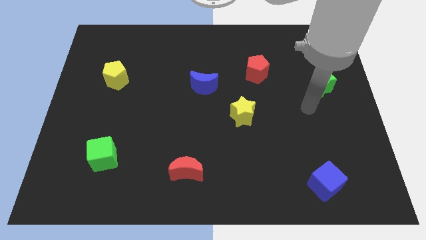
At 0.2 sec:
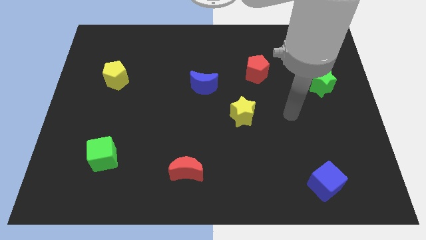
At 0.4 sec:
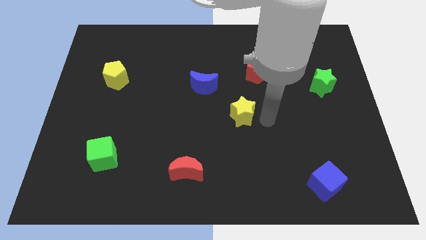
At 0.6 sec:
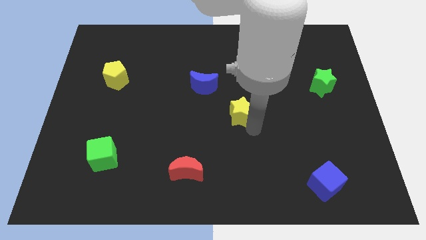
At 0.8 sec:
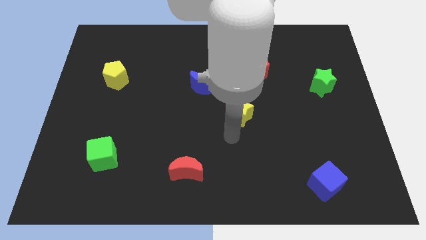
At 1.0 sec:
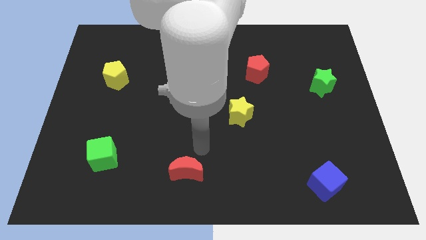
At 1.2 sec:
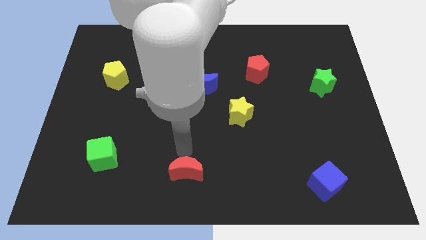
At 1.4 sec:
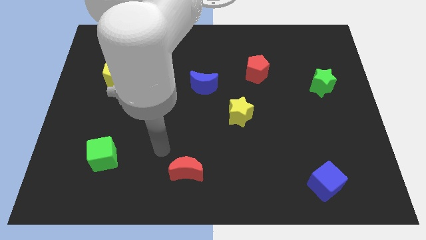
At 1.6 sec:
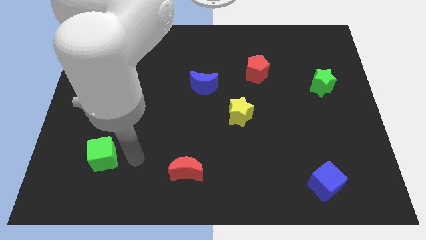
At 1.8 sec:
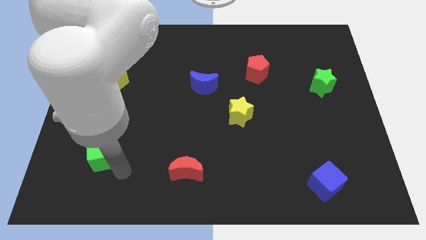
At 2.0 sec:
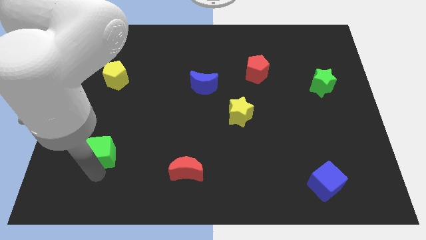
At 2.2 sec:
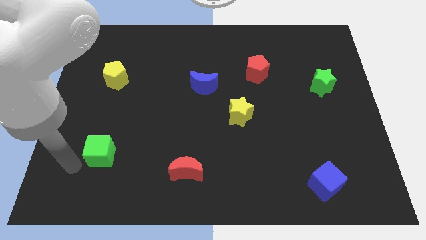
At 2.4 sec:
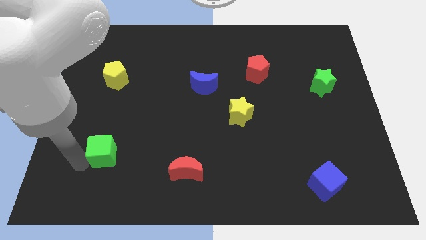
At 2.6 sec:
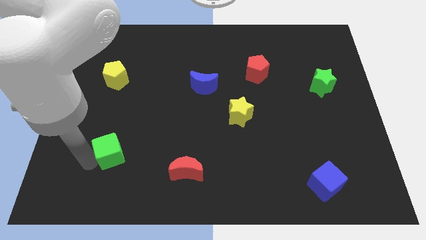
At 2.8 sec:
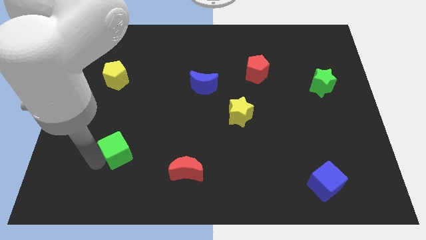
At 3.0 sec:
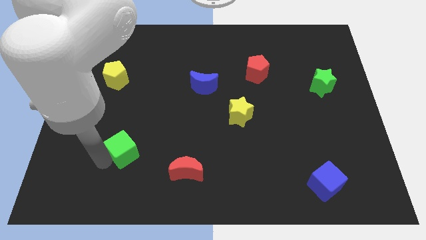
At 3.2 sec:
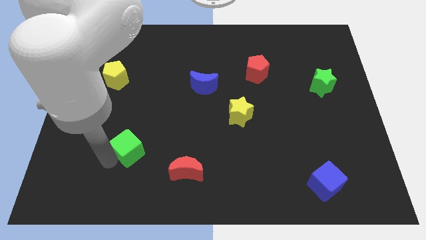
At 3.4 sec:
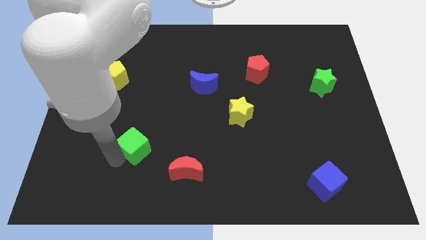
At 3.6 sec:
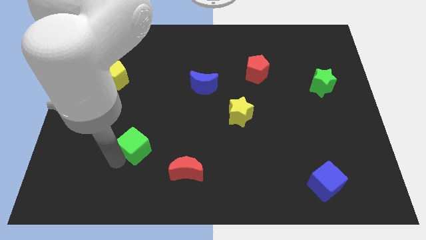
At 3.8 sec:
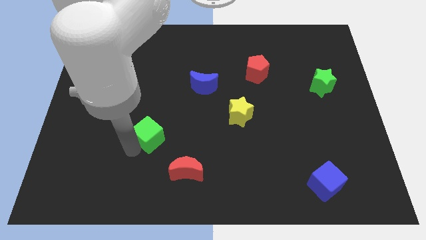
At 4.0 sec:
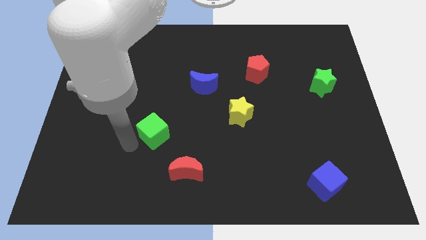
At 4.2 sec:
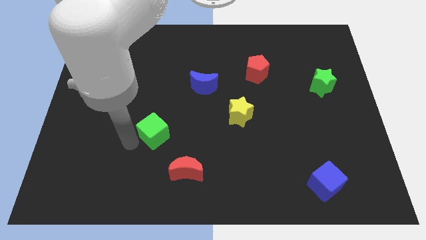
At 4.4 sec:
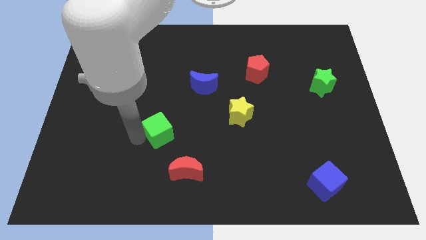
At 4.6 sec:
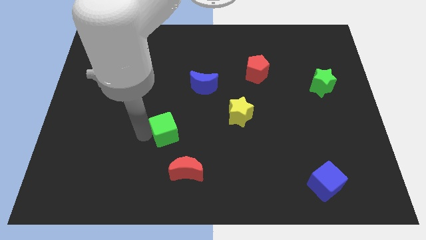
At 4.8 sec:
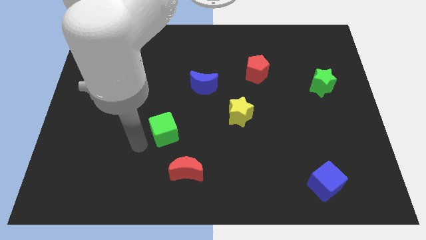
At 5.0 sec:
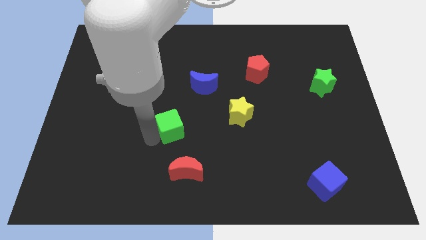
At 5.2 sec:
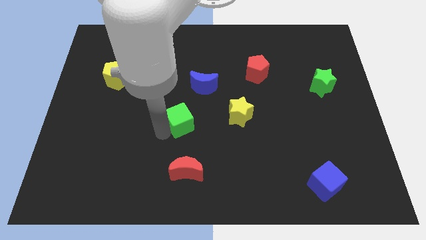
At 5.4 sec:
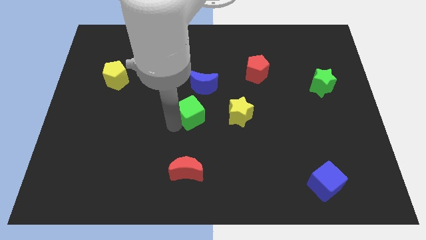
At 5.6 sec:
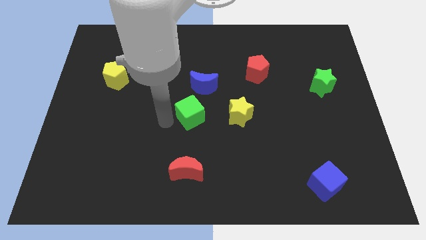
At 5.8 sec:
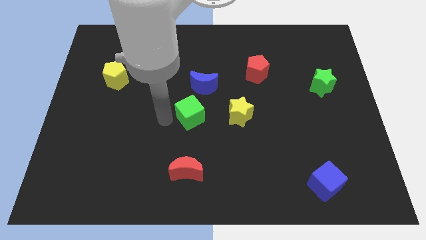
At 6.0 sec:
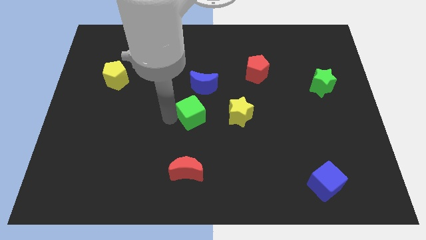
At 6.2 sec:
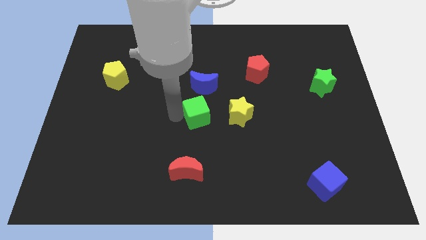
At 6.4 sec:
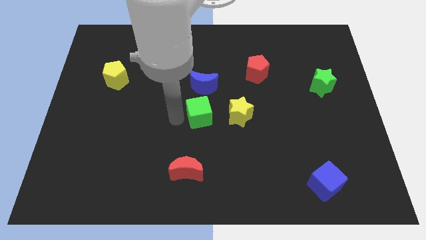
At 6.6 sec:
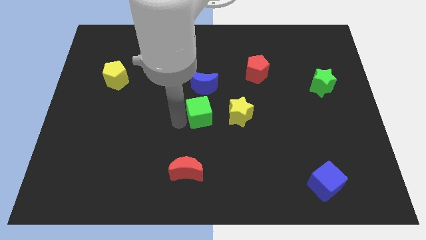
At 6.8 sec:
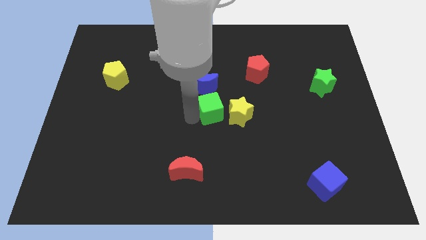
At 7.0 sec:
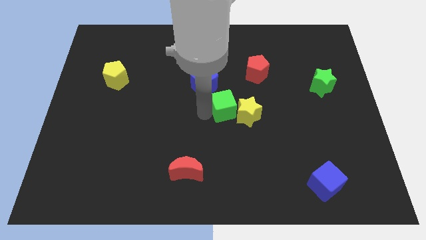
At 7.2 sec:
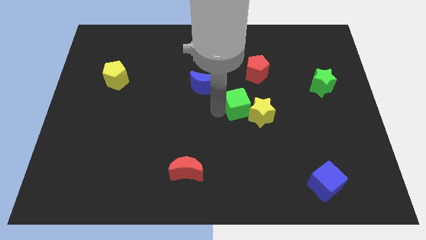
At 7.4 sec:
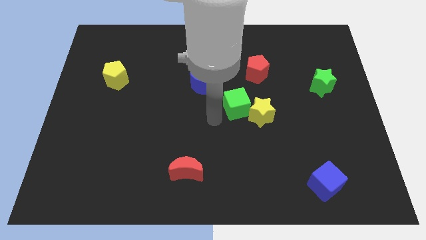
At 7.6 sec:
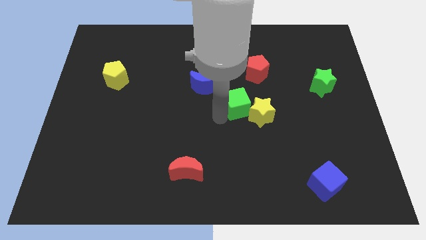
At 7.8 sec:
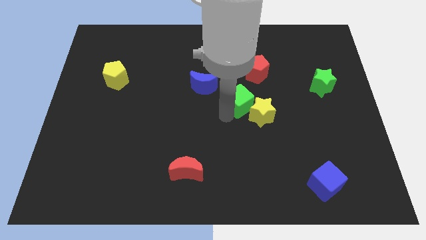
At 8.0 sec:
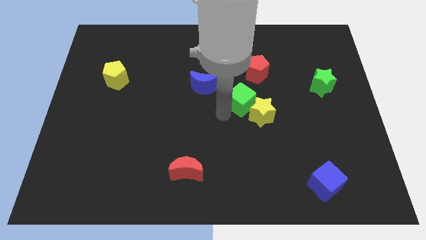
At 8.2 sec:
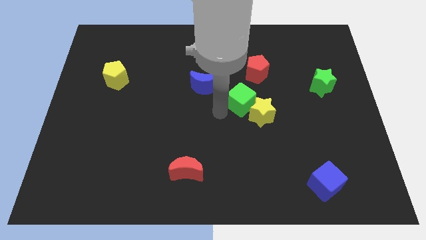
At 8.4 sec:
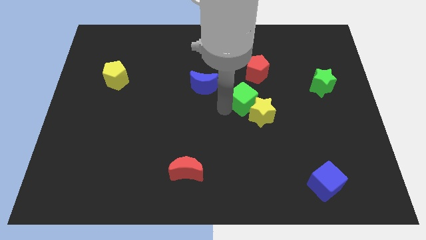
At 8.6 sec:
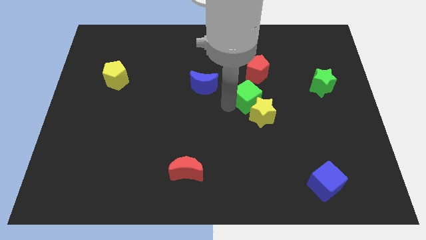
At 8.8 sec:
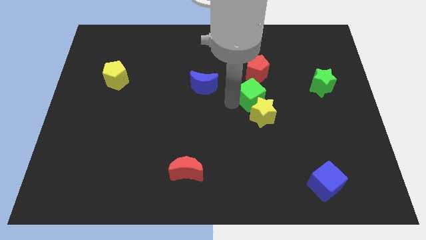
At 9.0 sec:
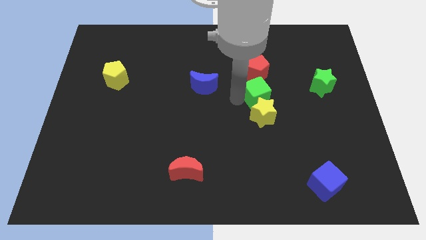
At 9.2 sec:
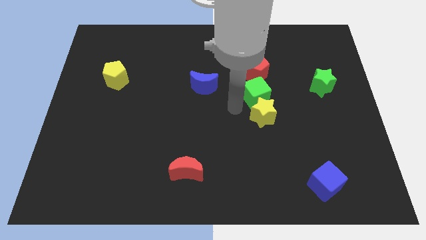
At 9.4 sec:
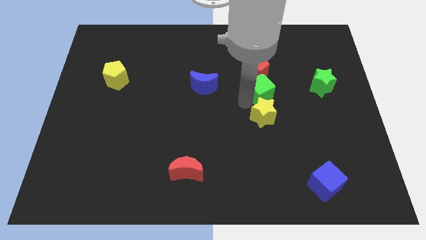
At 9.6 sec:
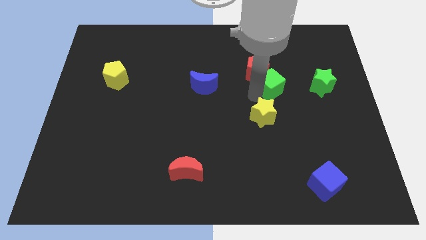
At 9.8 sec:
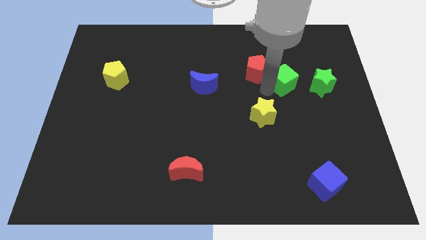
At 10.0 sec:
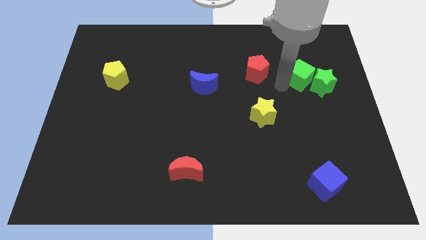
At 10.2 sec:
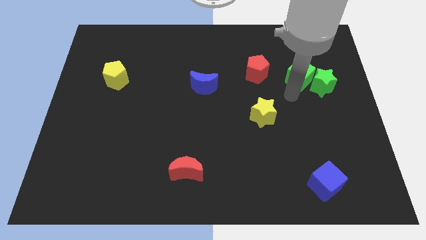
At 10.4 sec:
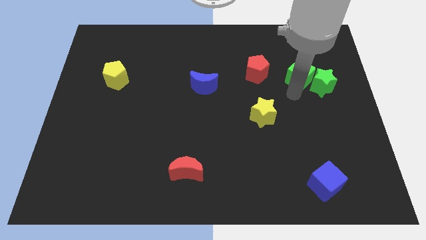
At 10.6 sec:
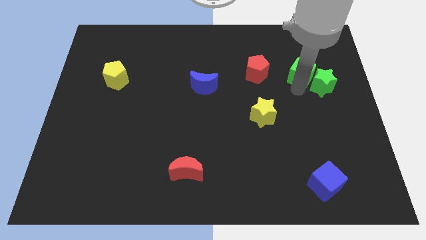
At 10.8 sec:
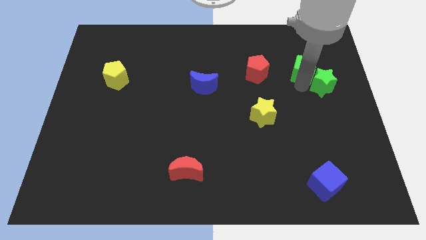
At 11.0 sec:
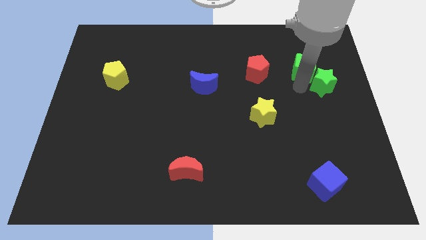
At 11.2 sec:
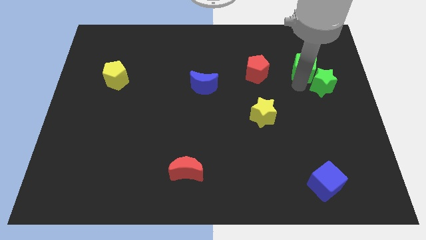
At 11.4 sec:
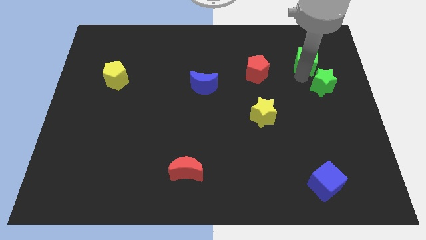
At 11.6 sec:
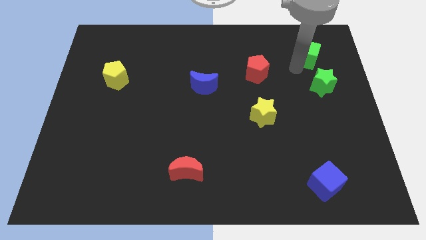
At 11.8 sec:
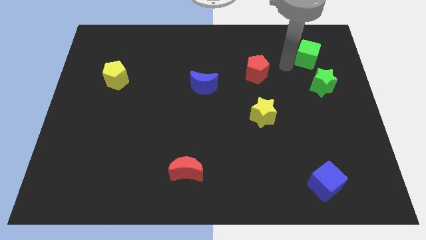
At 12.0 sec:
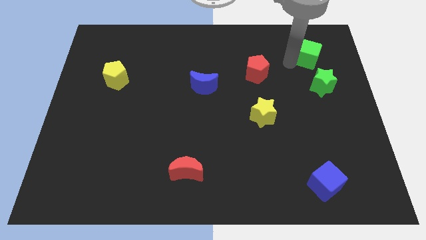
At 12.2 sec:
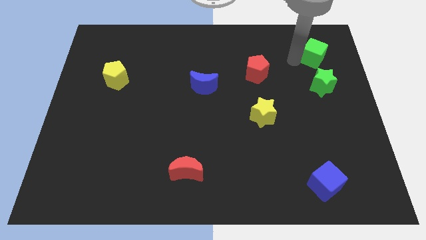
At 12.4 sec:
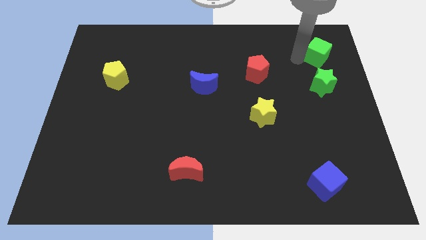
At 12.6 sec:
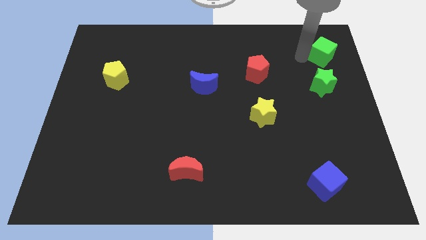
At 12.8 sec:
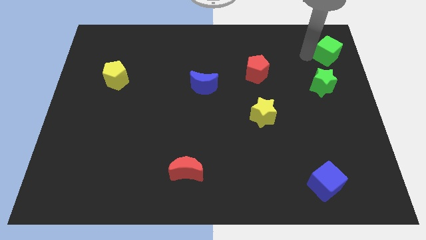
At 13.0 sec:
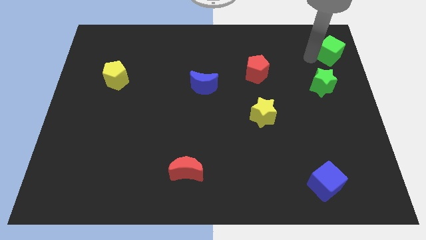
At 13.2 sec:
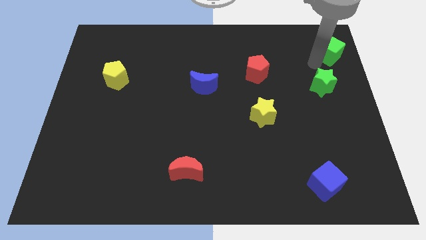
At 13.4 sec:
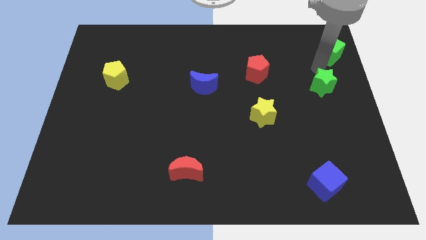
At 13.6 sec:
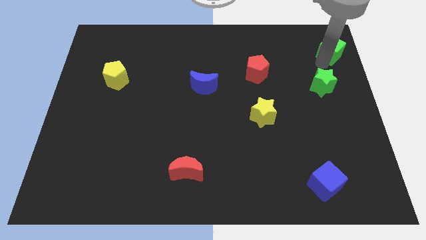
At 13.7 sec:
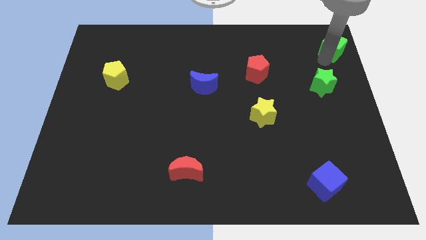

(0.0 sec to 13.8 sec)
move the green cube to the top right corner
